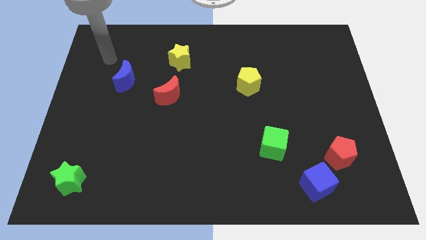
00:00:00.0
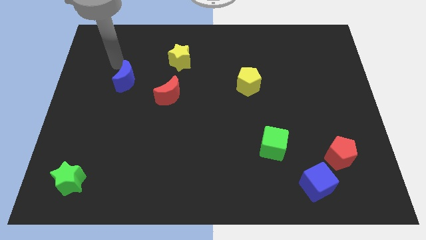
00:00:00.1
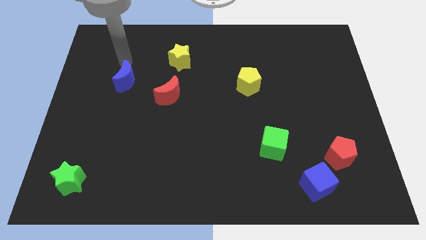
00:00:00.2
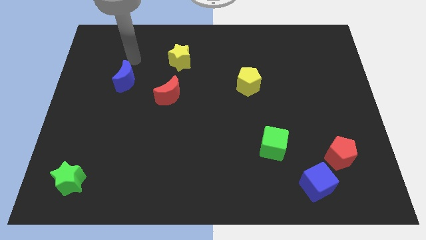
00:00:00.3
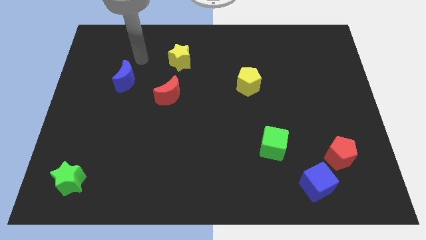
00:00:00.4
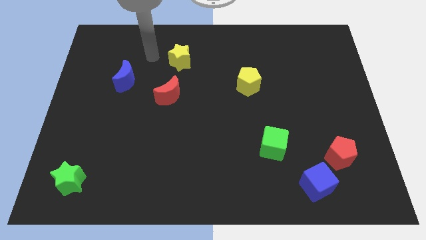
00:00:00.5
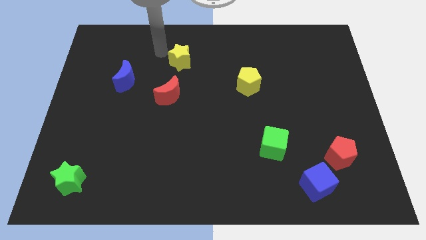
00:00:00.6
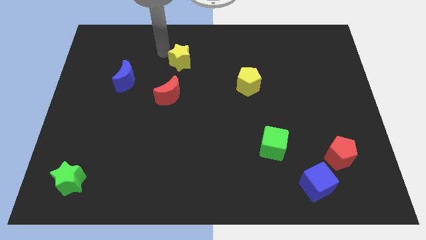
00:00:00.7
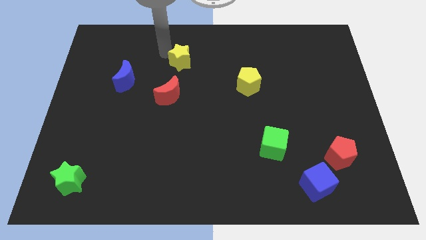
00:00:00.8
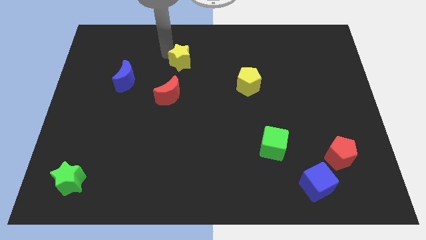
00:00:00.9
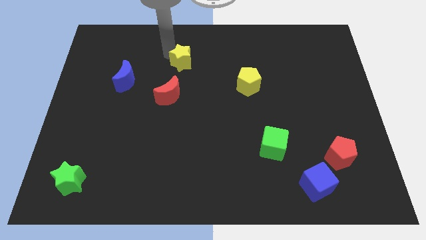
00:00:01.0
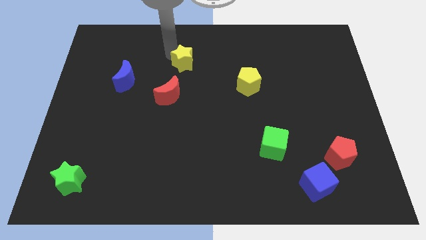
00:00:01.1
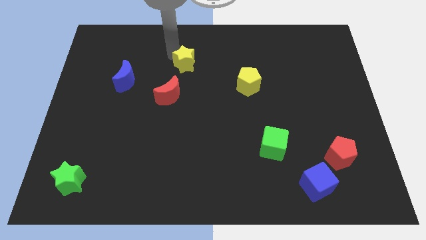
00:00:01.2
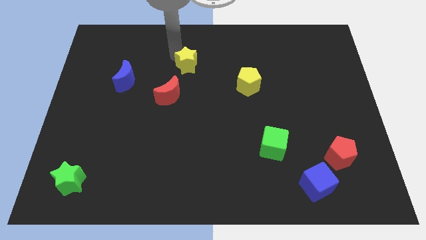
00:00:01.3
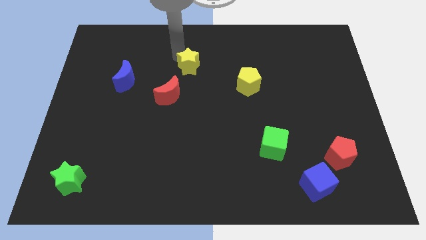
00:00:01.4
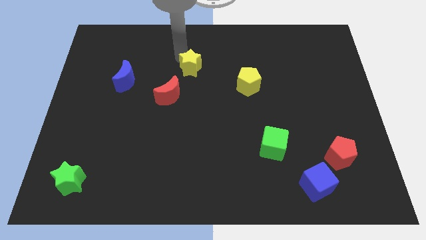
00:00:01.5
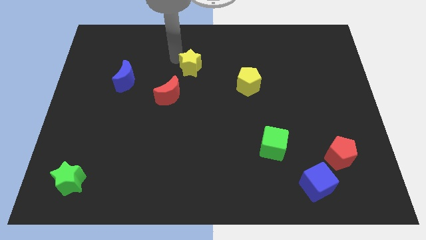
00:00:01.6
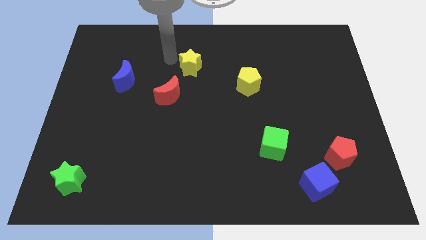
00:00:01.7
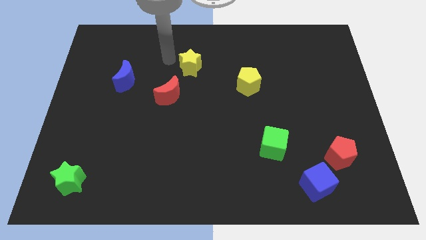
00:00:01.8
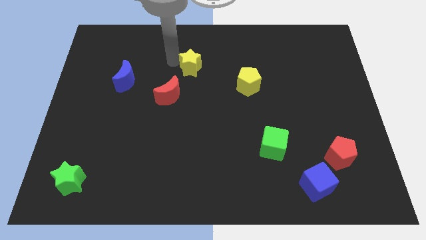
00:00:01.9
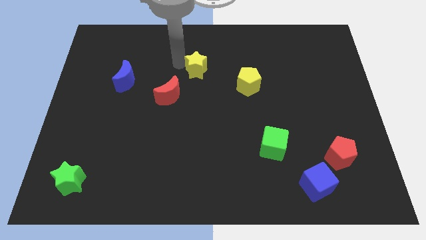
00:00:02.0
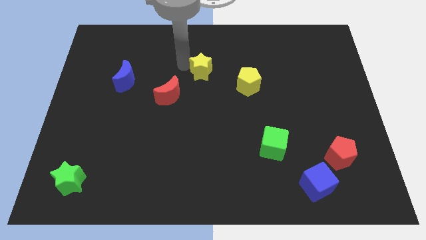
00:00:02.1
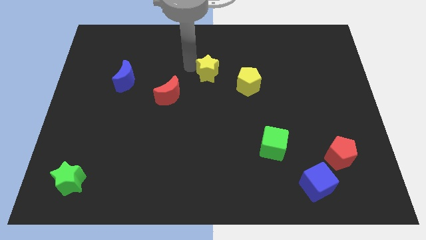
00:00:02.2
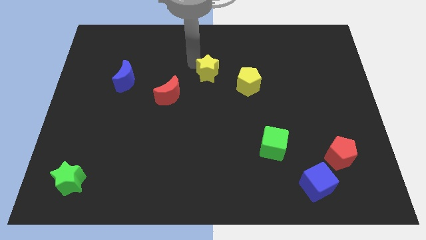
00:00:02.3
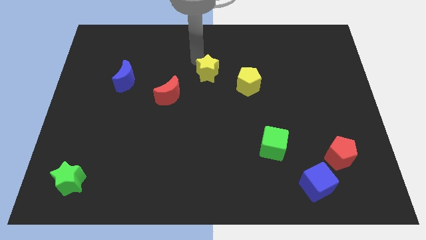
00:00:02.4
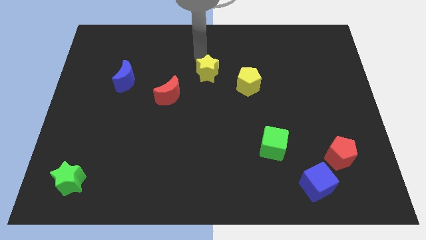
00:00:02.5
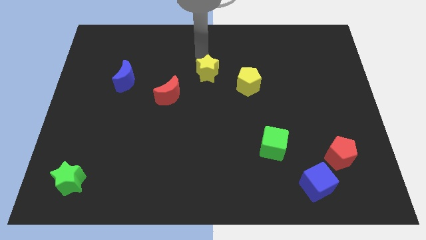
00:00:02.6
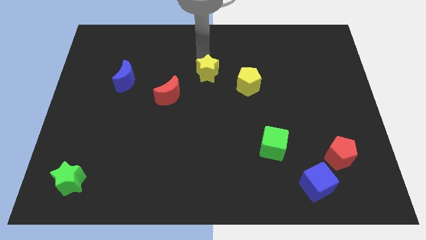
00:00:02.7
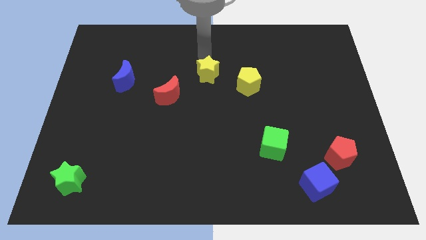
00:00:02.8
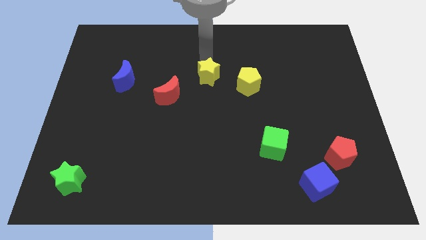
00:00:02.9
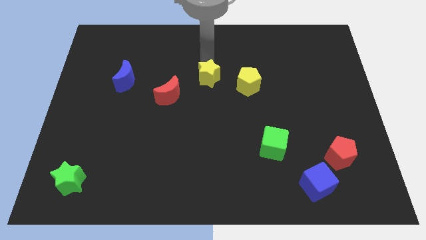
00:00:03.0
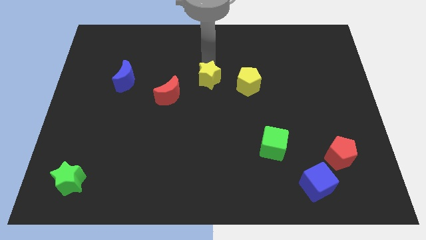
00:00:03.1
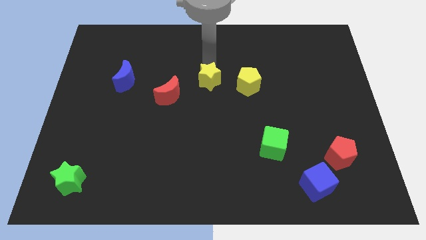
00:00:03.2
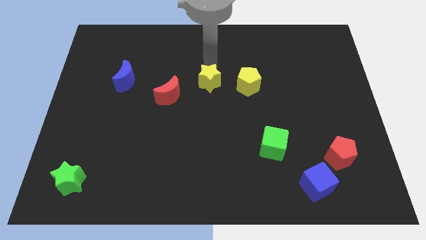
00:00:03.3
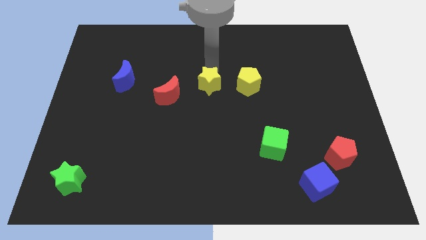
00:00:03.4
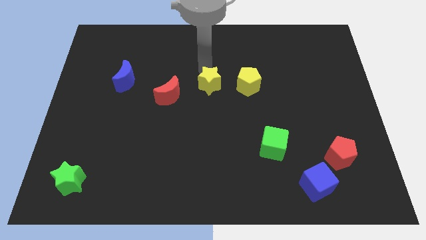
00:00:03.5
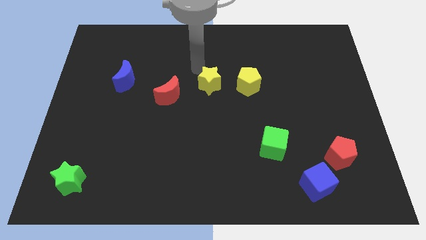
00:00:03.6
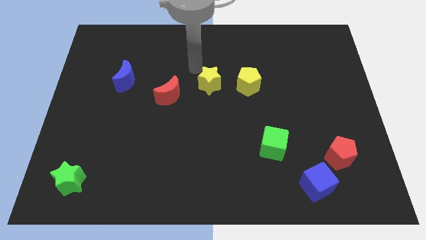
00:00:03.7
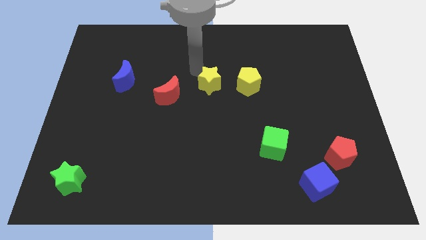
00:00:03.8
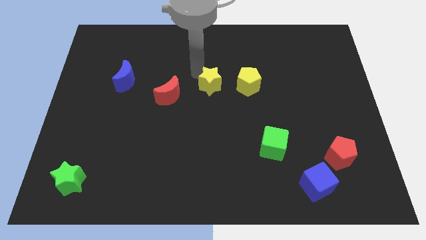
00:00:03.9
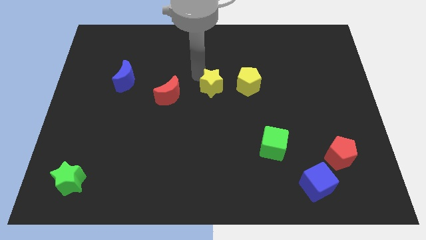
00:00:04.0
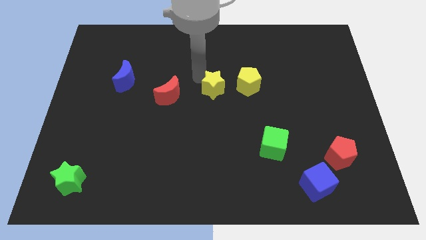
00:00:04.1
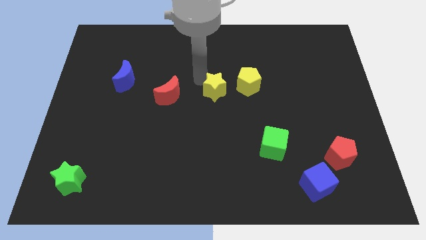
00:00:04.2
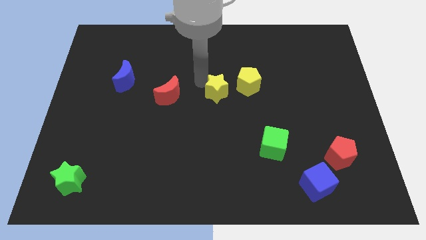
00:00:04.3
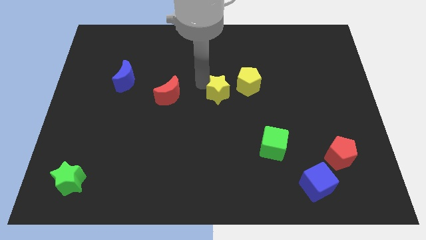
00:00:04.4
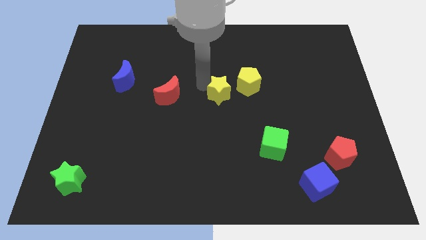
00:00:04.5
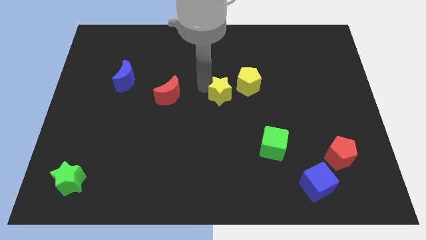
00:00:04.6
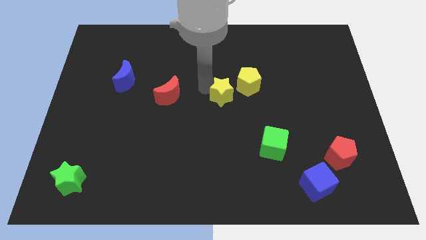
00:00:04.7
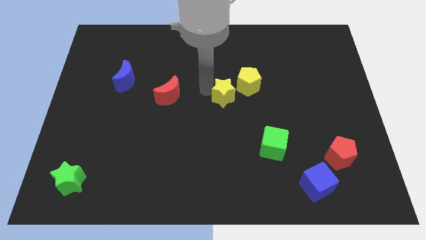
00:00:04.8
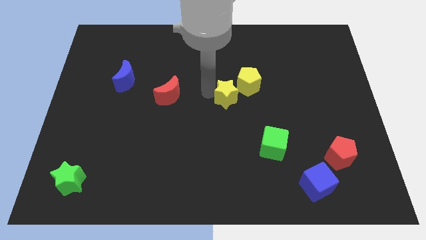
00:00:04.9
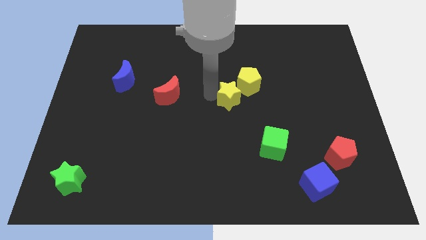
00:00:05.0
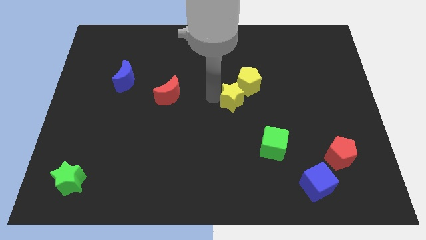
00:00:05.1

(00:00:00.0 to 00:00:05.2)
put the yellow star below the yellow pentagon

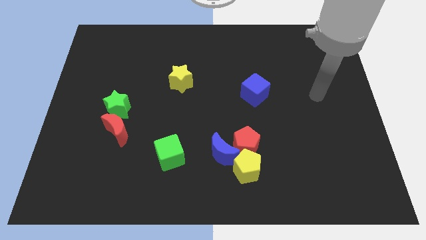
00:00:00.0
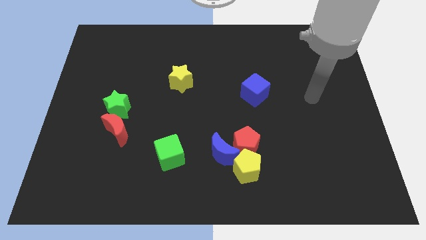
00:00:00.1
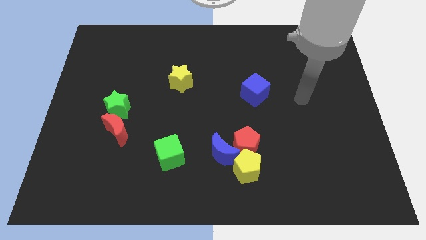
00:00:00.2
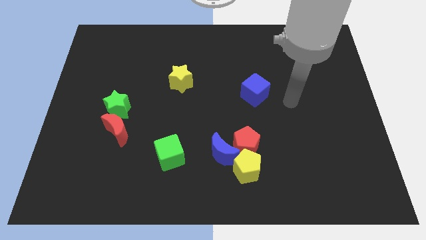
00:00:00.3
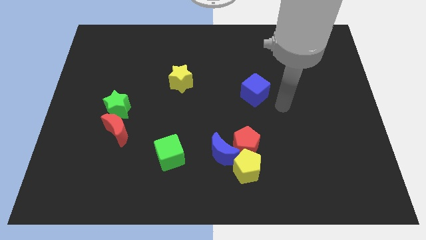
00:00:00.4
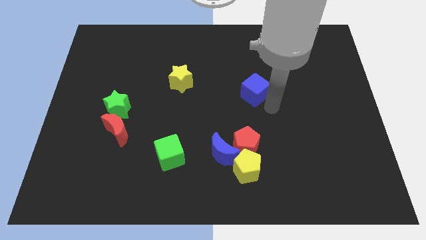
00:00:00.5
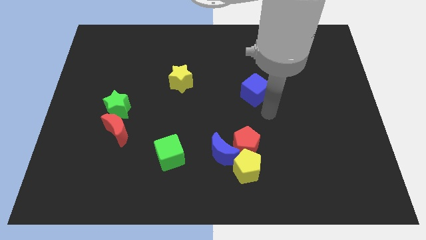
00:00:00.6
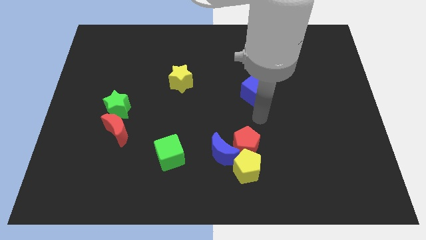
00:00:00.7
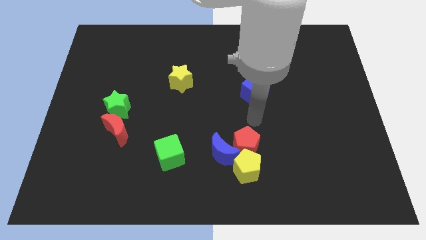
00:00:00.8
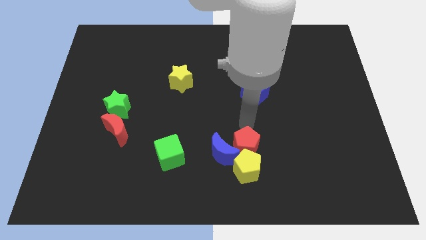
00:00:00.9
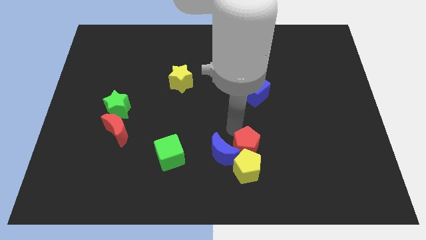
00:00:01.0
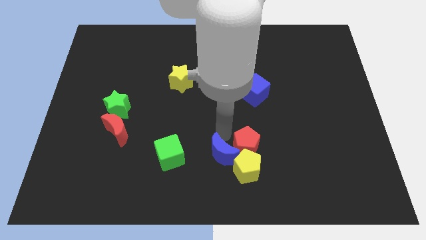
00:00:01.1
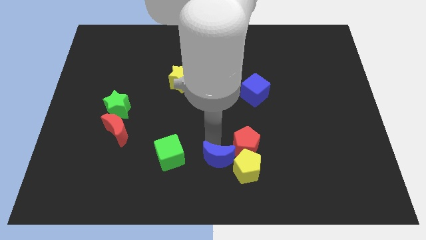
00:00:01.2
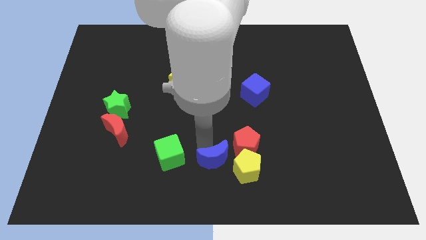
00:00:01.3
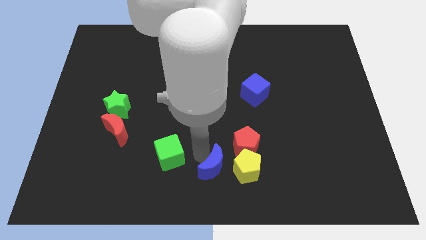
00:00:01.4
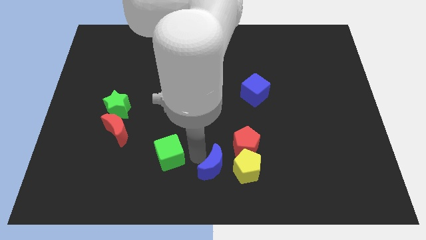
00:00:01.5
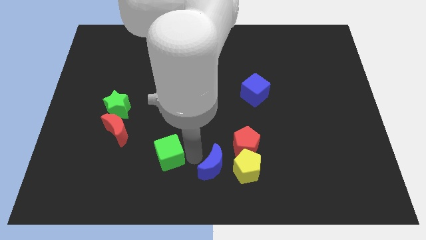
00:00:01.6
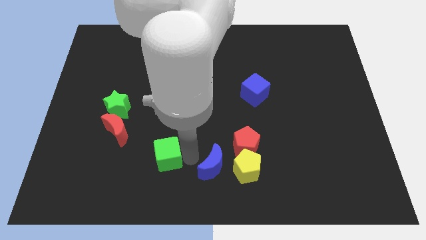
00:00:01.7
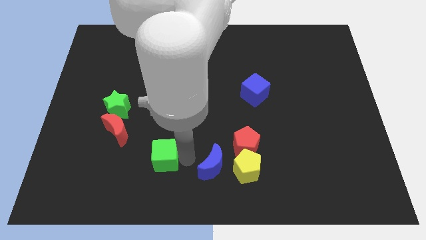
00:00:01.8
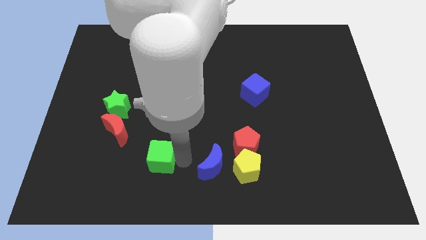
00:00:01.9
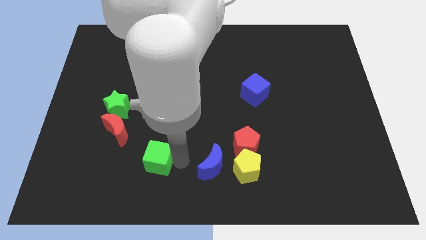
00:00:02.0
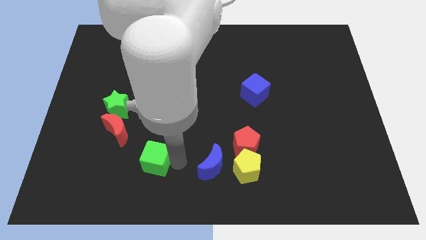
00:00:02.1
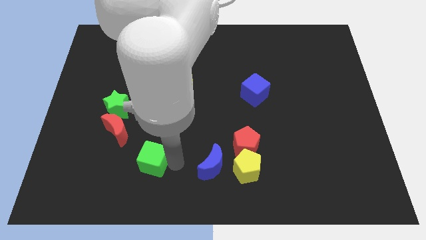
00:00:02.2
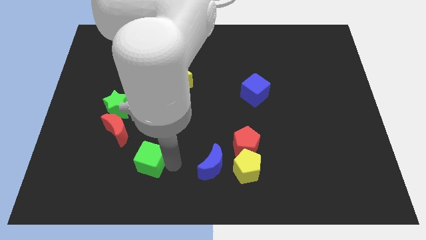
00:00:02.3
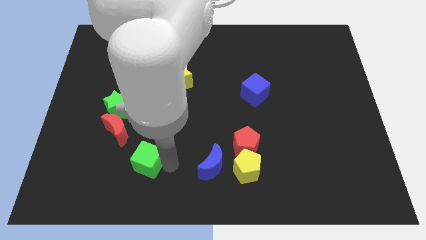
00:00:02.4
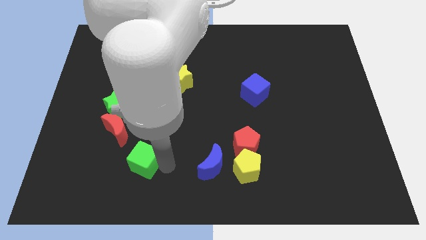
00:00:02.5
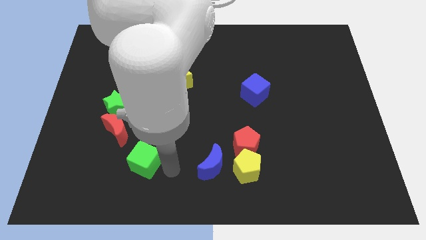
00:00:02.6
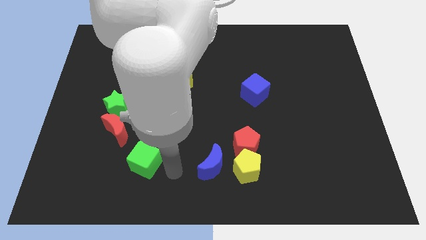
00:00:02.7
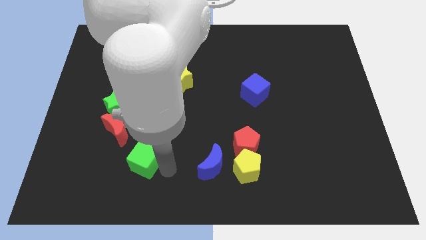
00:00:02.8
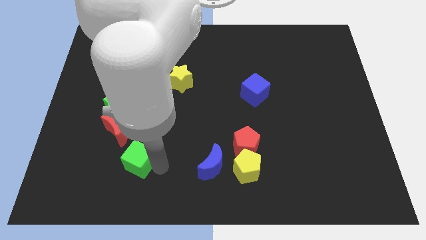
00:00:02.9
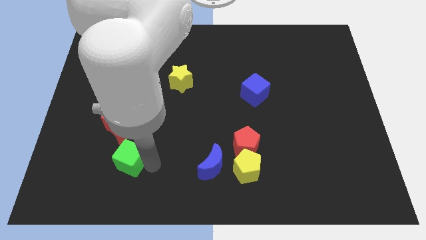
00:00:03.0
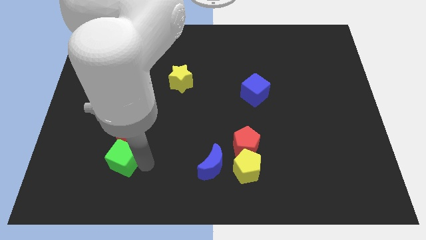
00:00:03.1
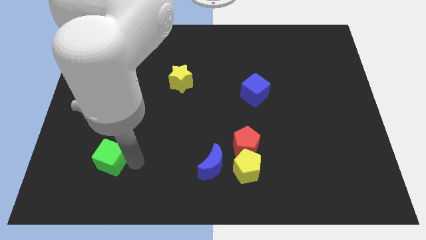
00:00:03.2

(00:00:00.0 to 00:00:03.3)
push the green cube to the bottom left side of the red moon
